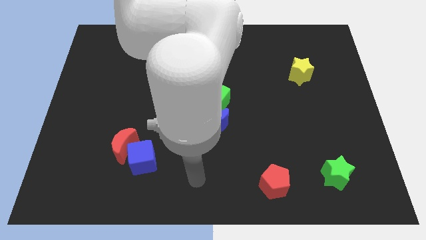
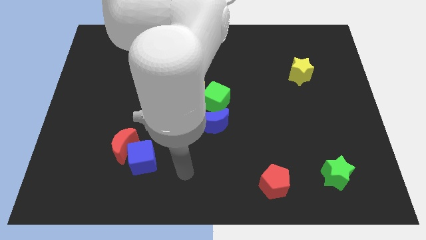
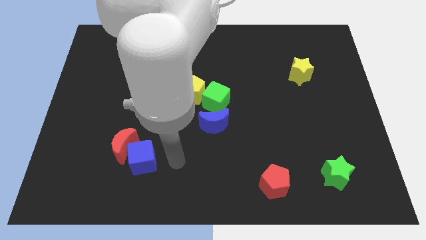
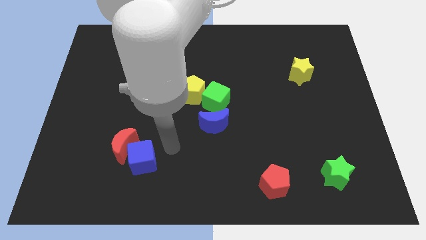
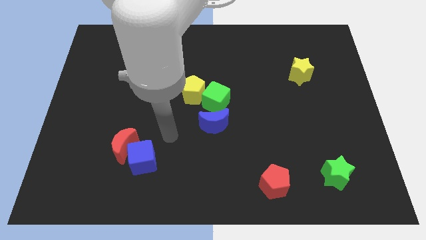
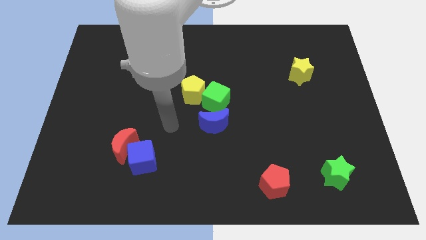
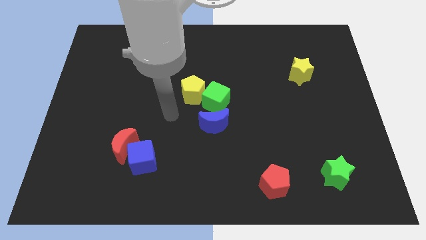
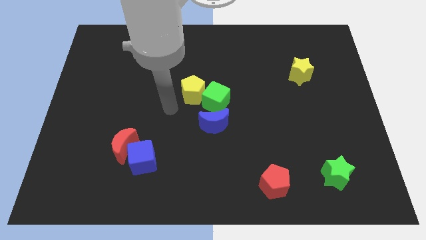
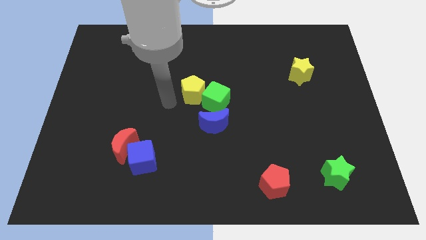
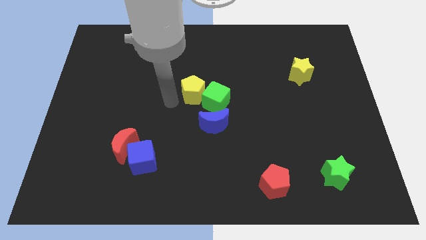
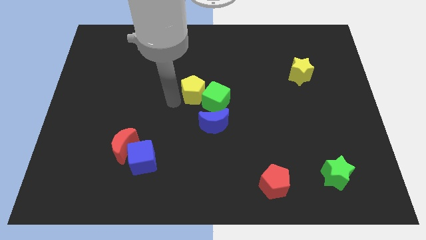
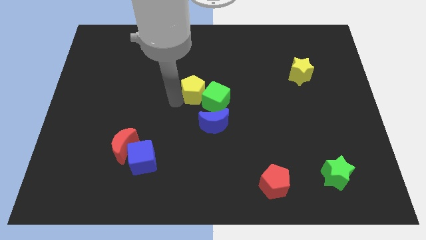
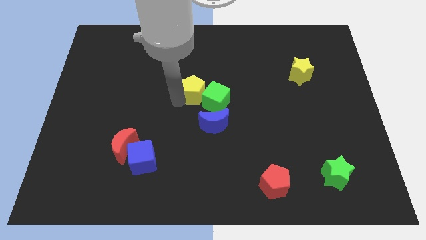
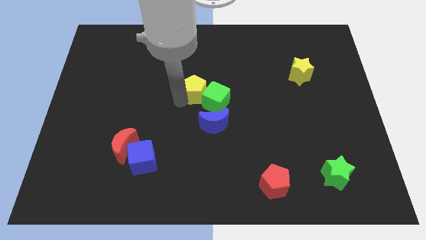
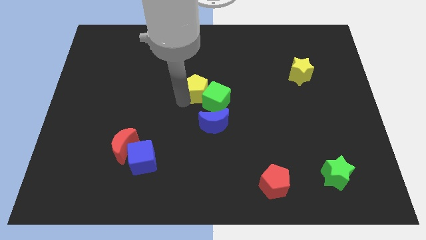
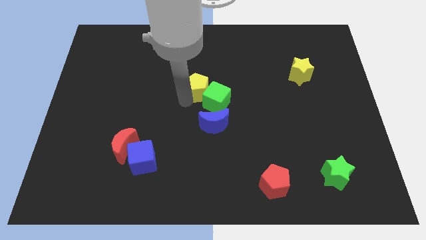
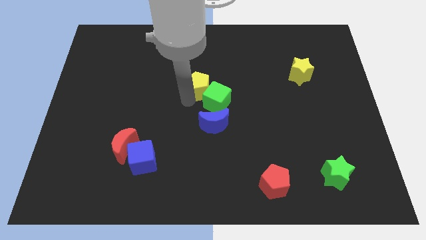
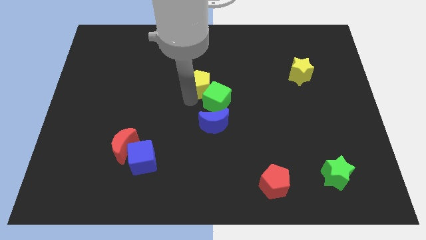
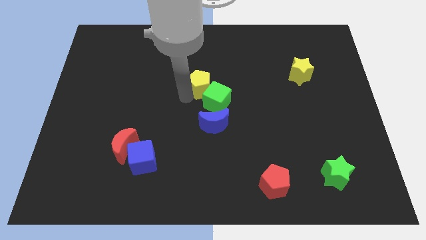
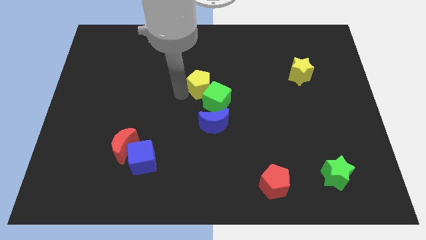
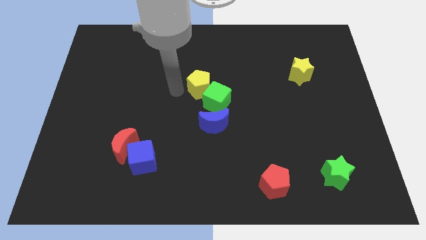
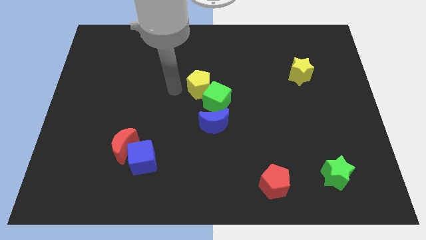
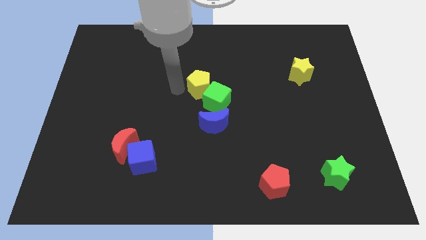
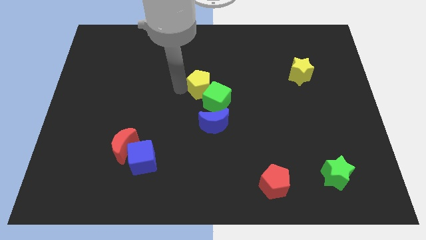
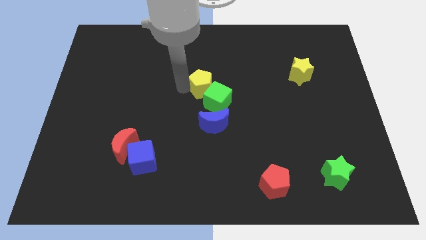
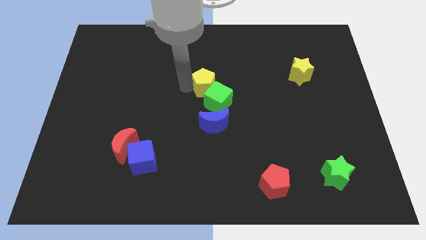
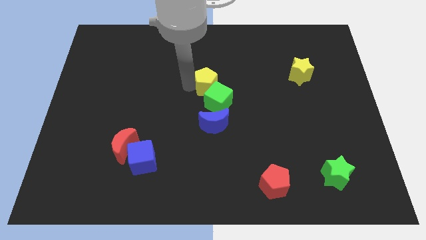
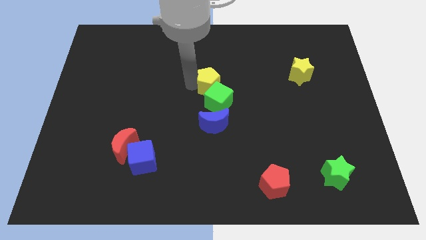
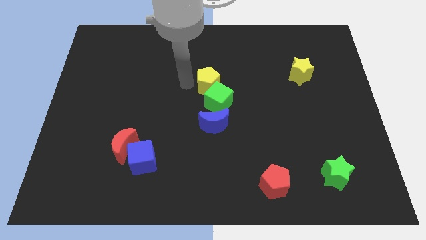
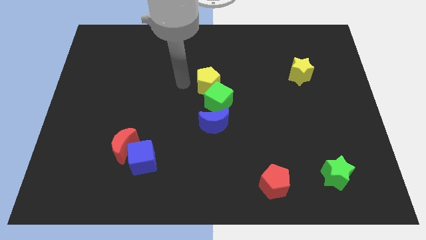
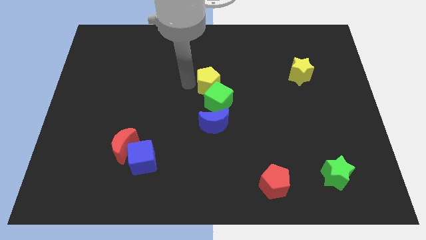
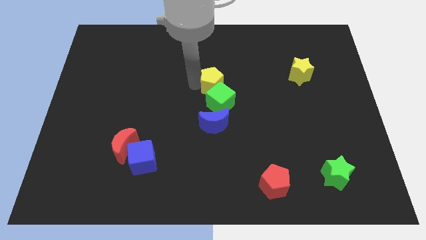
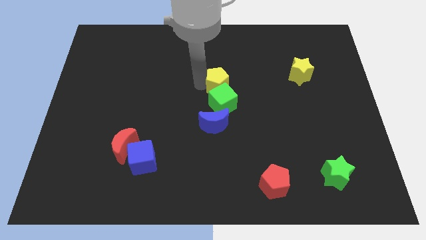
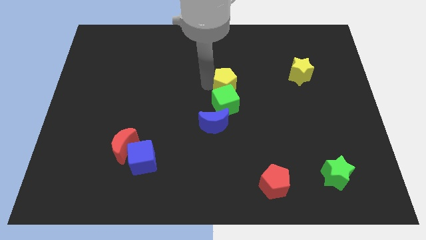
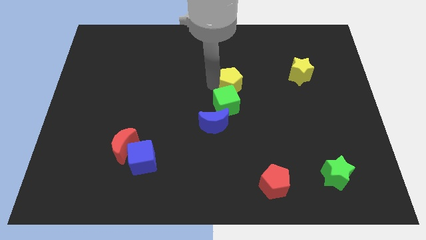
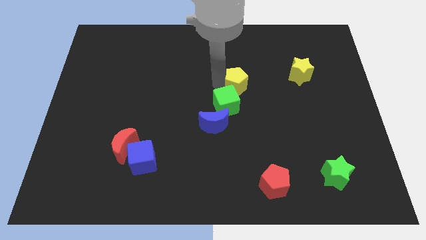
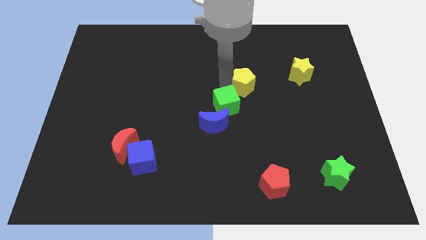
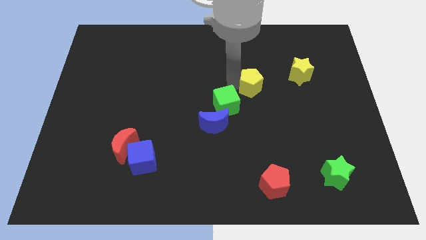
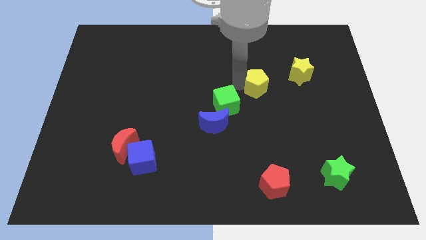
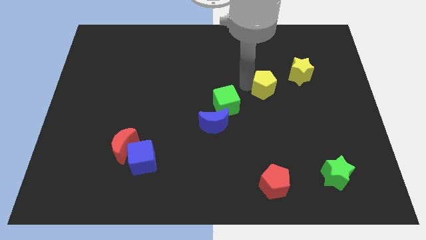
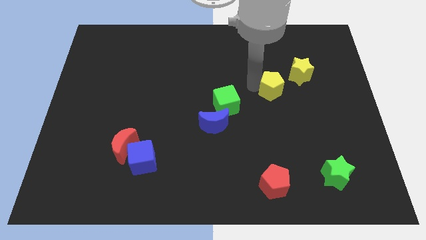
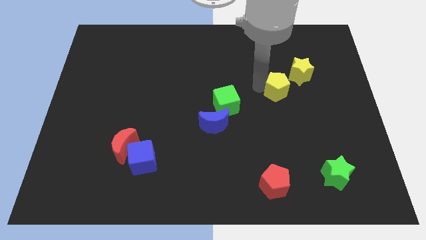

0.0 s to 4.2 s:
move the yellow pentagon right

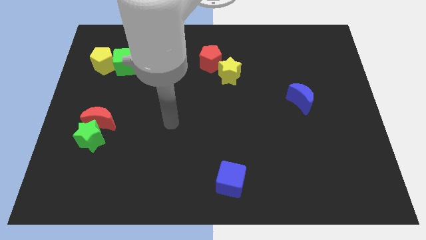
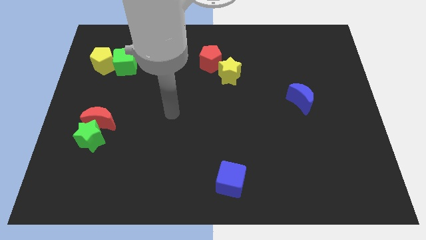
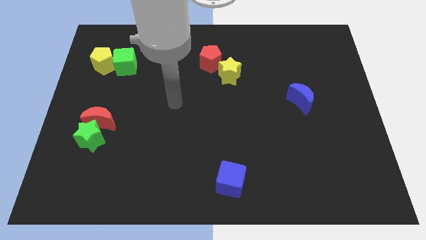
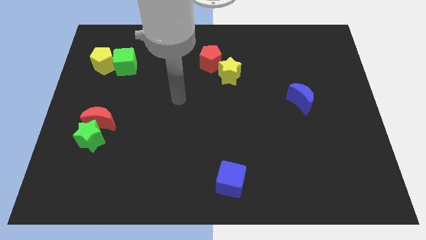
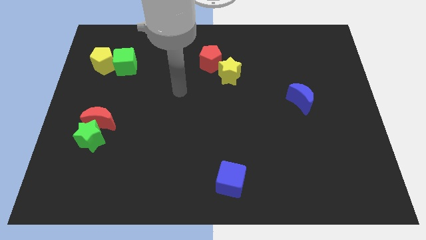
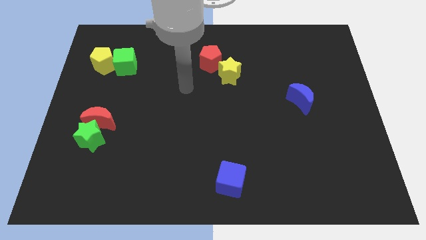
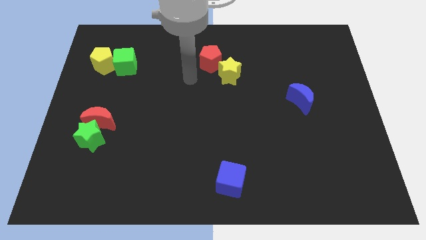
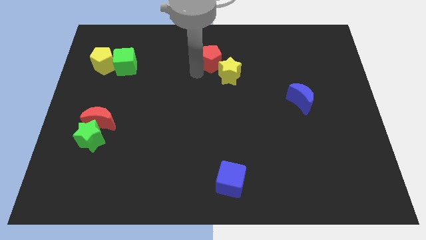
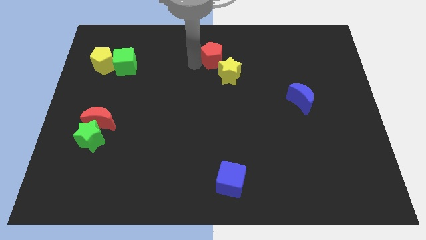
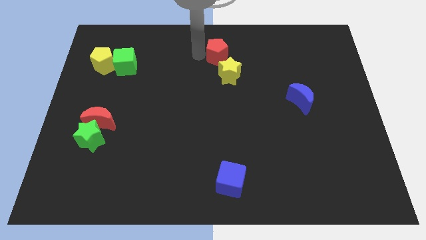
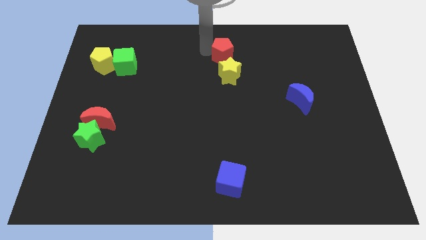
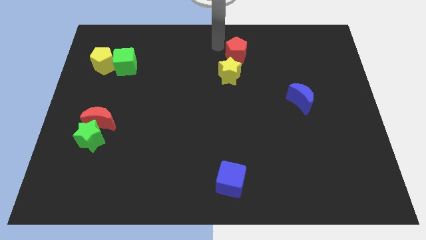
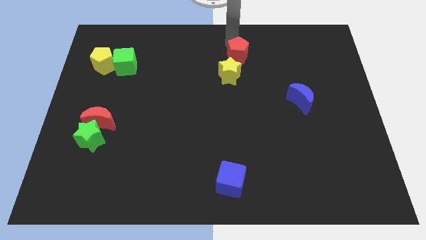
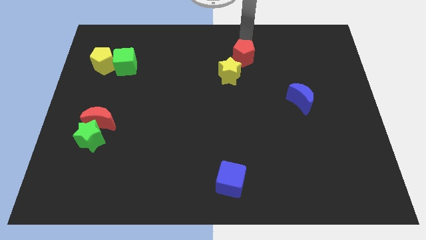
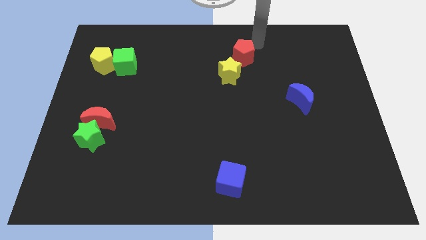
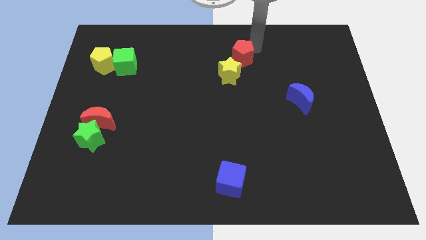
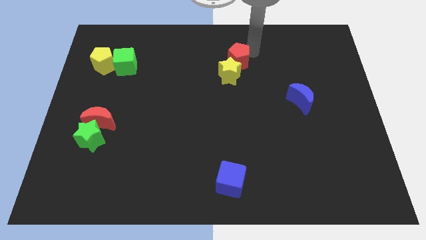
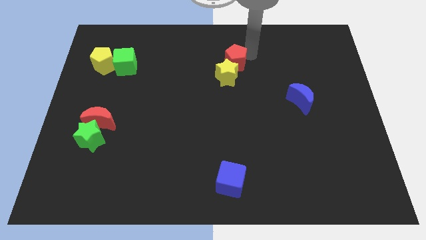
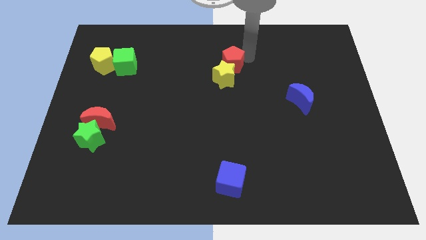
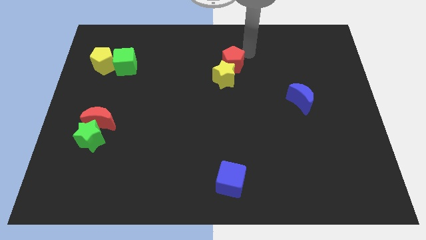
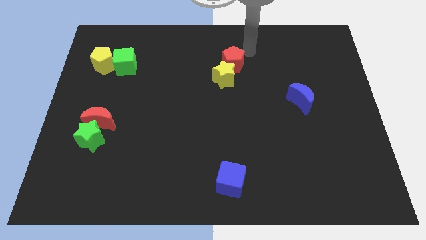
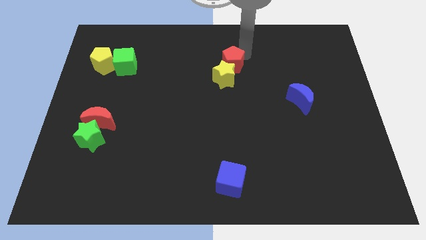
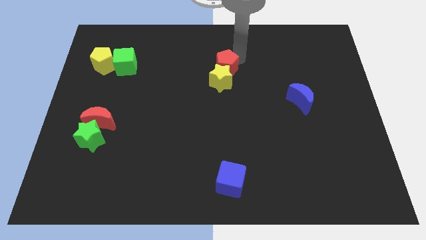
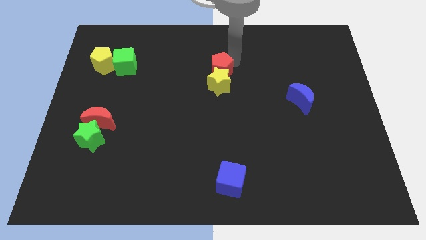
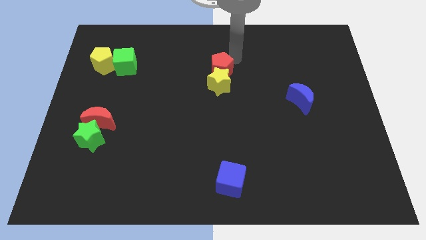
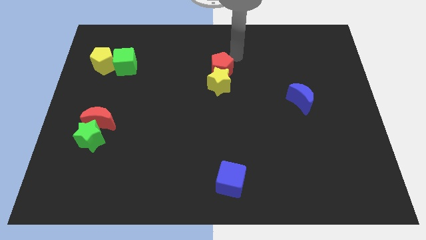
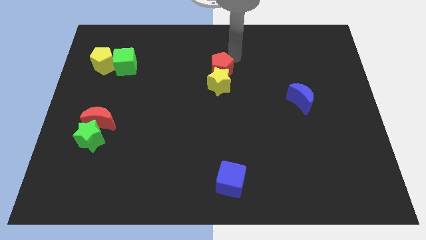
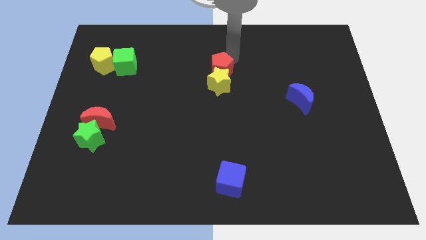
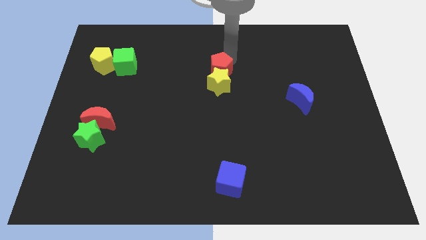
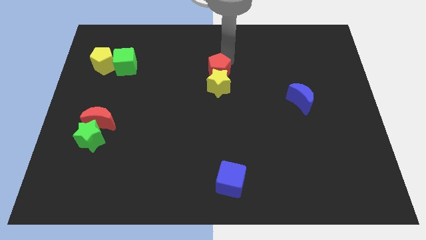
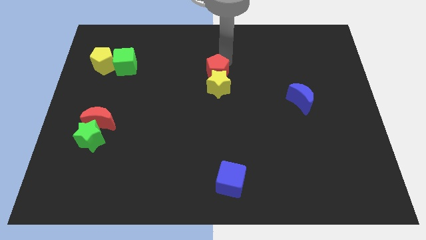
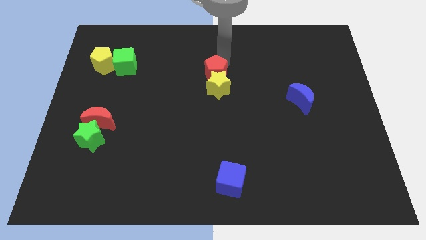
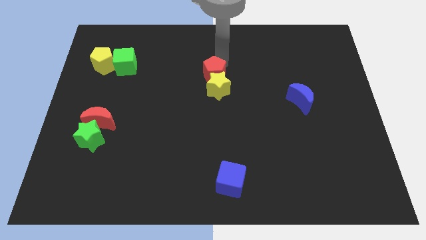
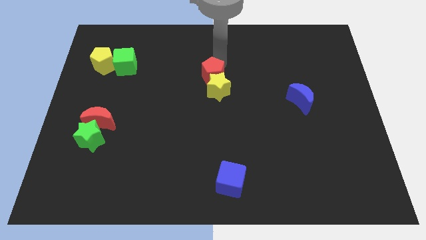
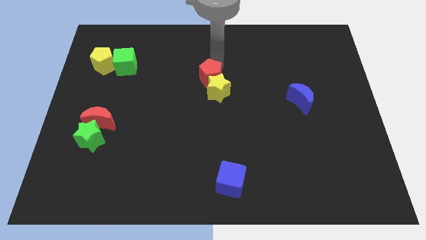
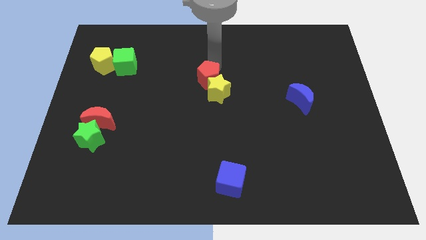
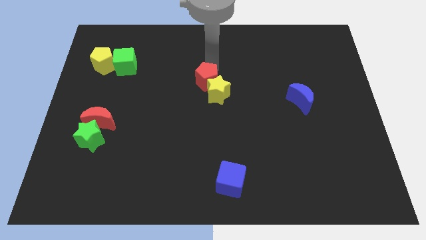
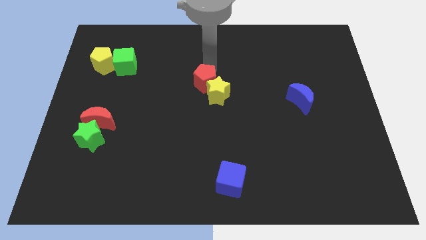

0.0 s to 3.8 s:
slide the red pentagon somewhat downwards
